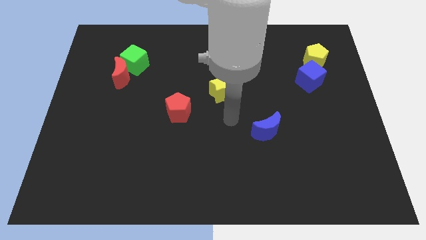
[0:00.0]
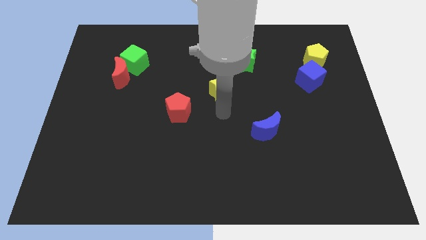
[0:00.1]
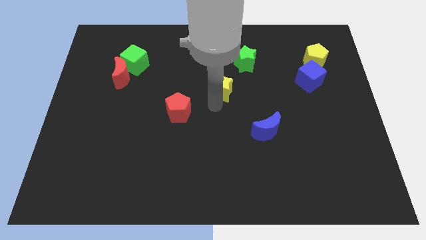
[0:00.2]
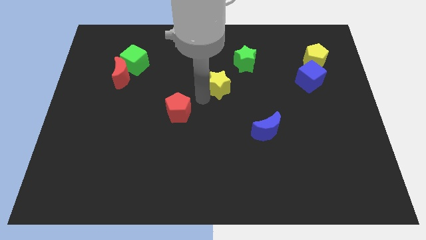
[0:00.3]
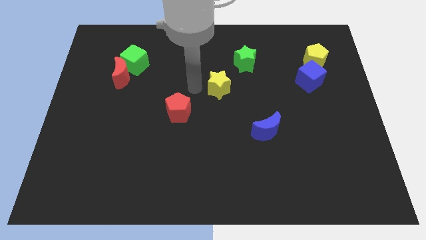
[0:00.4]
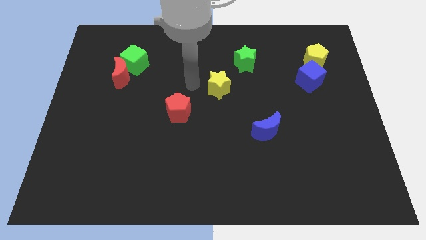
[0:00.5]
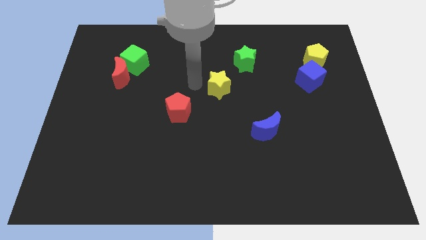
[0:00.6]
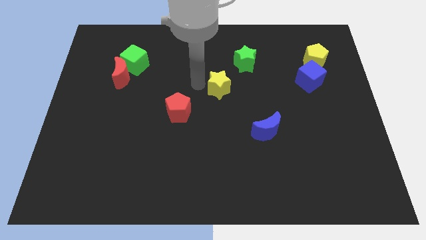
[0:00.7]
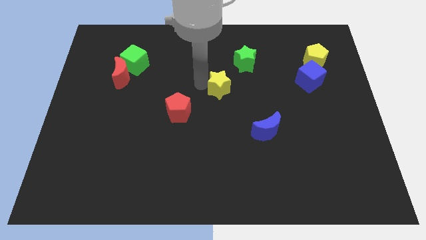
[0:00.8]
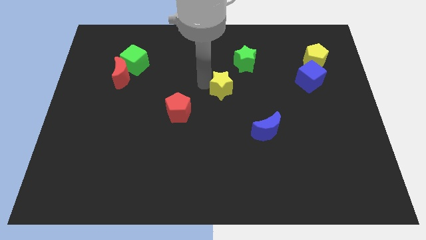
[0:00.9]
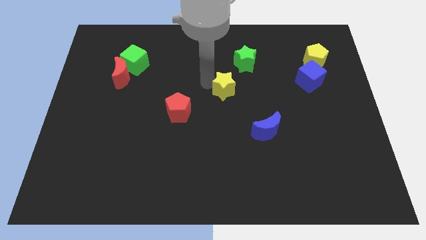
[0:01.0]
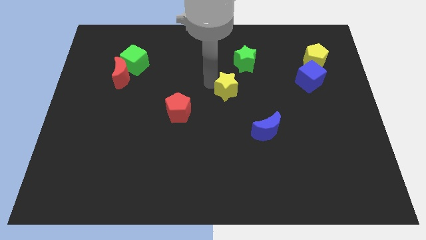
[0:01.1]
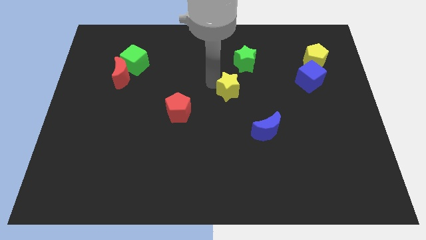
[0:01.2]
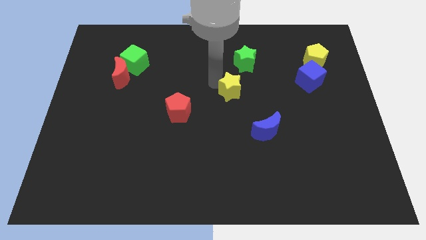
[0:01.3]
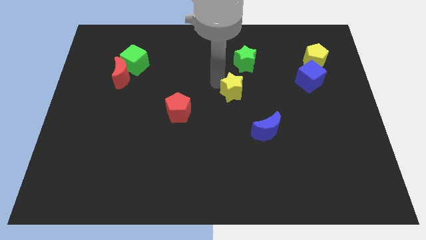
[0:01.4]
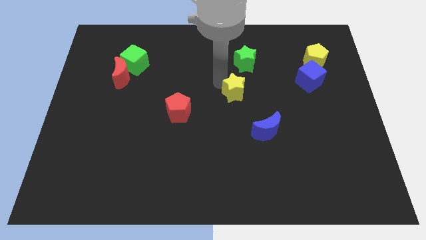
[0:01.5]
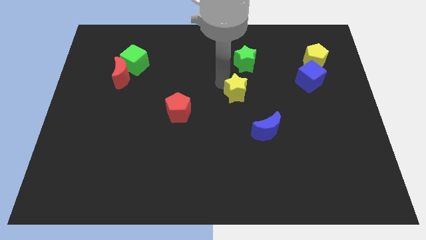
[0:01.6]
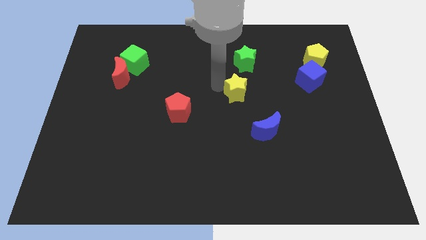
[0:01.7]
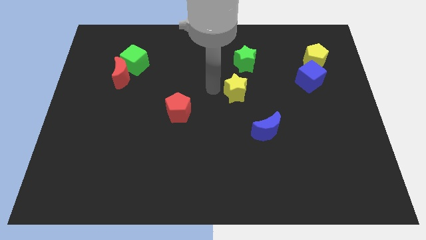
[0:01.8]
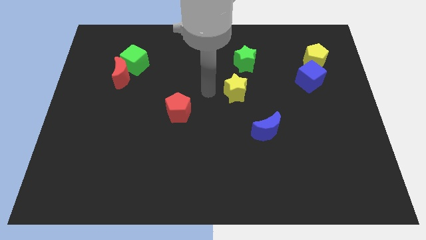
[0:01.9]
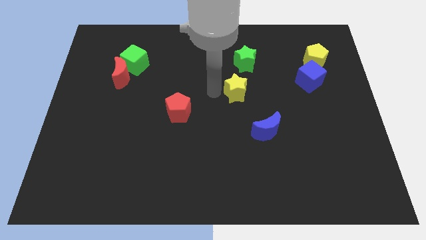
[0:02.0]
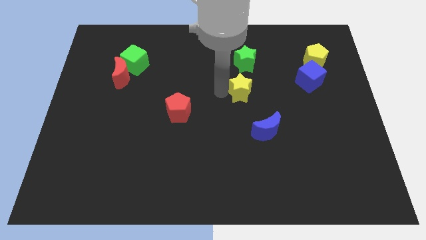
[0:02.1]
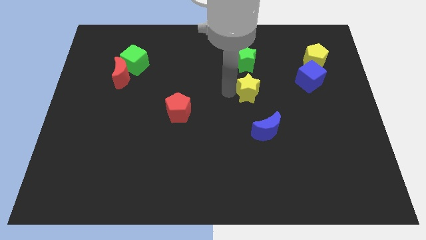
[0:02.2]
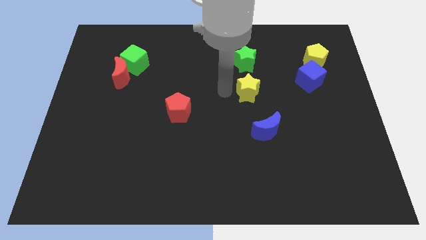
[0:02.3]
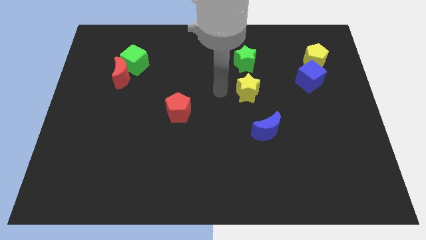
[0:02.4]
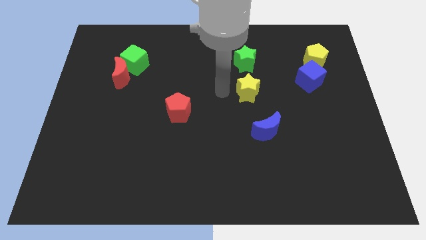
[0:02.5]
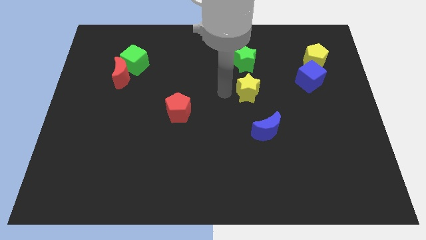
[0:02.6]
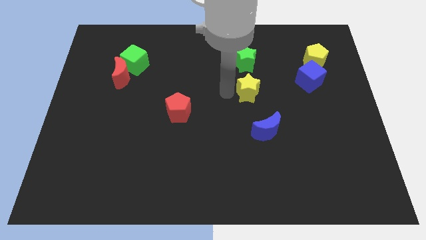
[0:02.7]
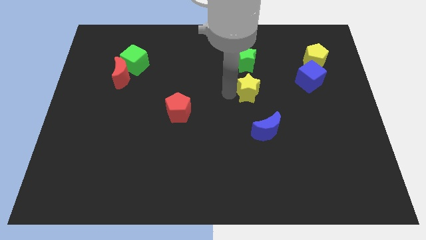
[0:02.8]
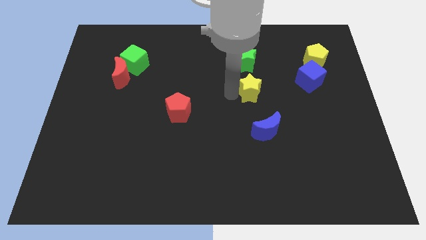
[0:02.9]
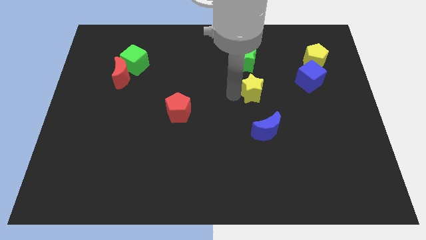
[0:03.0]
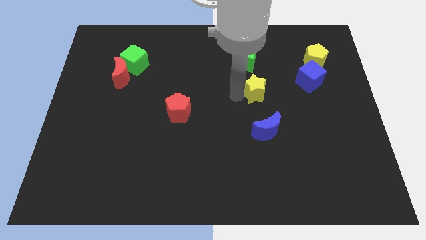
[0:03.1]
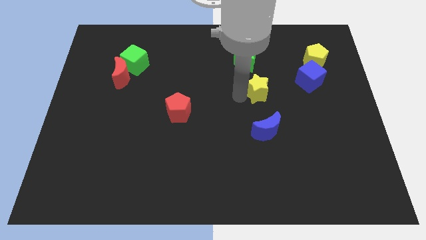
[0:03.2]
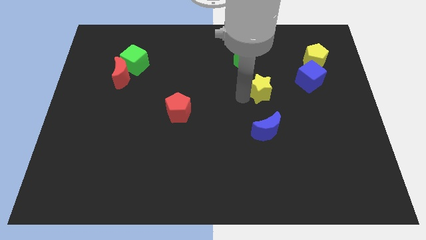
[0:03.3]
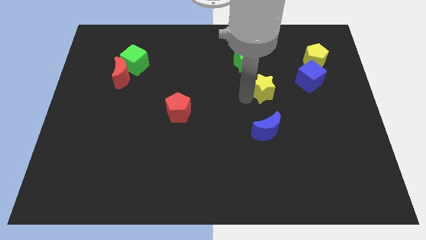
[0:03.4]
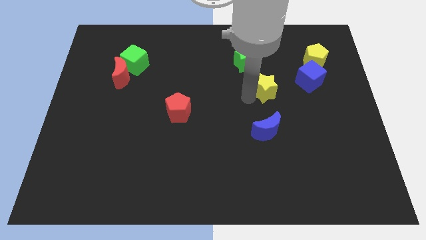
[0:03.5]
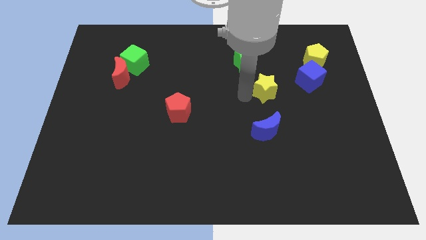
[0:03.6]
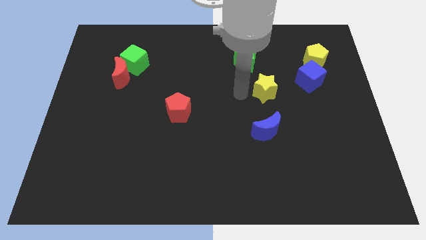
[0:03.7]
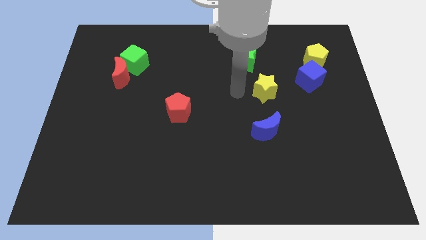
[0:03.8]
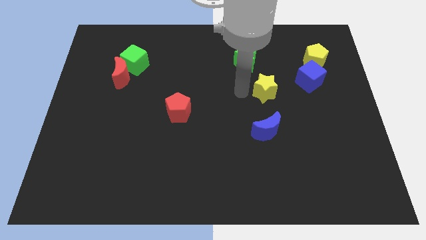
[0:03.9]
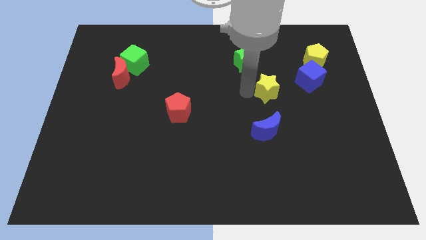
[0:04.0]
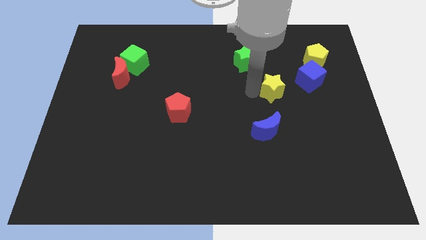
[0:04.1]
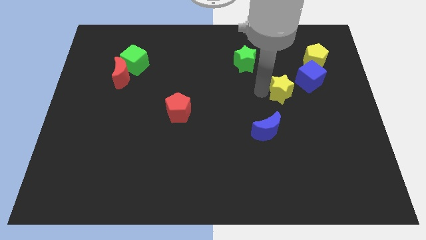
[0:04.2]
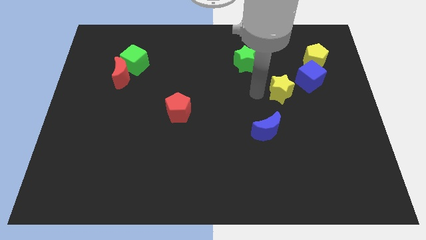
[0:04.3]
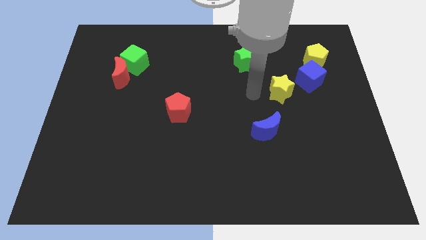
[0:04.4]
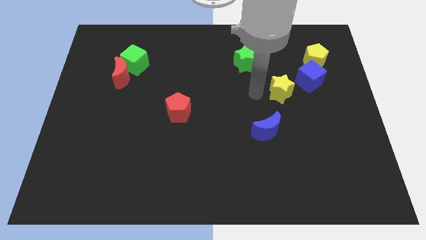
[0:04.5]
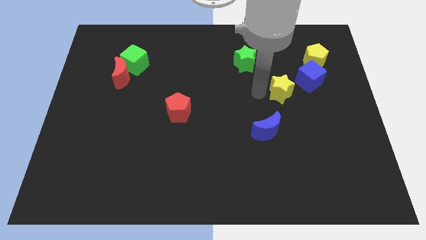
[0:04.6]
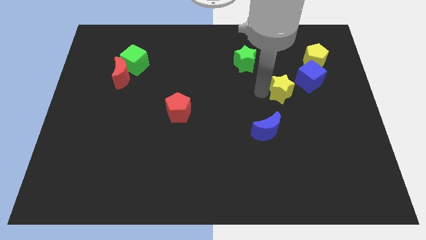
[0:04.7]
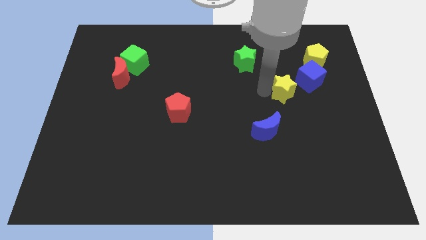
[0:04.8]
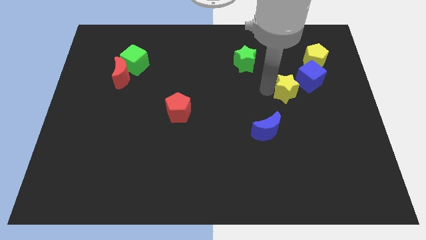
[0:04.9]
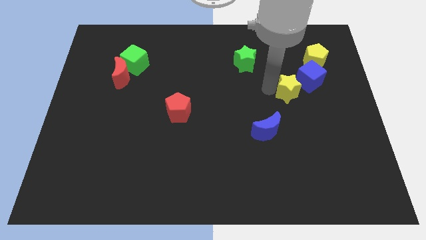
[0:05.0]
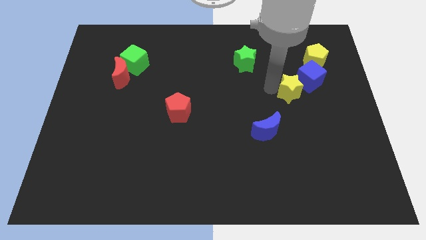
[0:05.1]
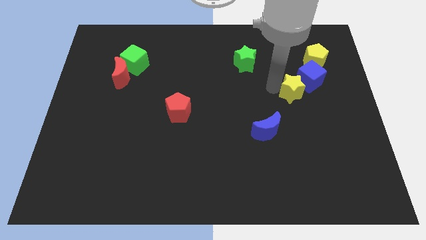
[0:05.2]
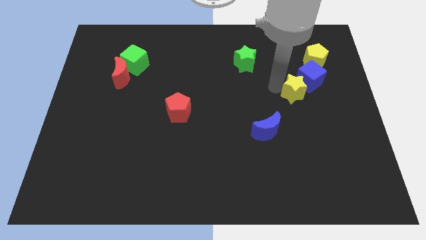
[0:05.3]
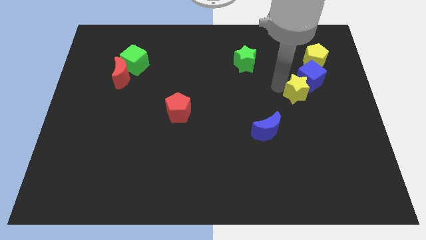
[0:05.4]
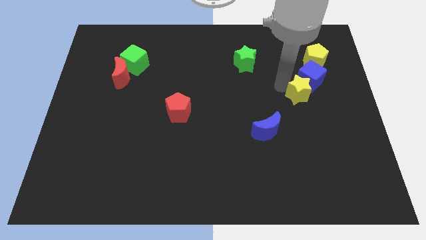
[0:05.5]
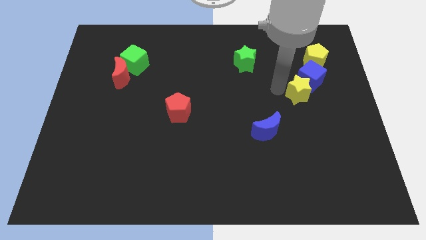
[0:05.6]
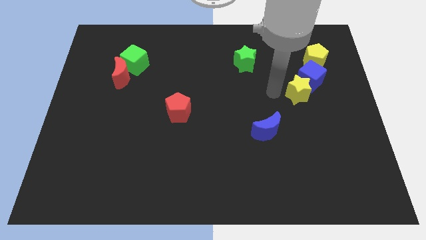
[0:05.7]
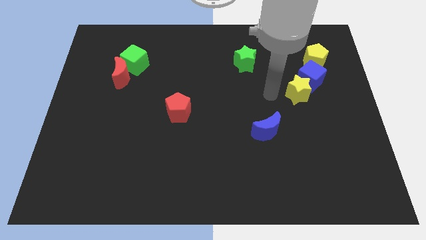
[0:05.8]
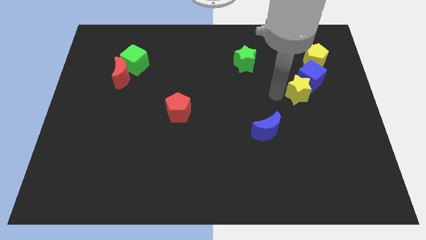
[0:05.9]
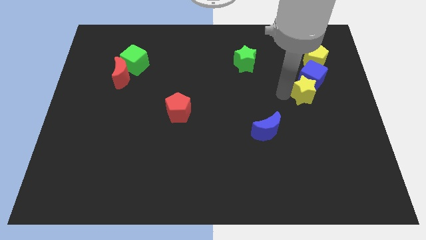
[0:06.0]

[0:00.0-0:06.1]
slide the yellow star to the bottom of the yellow pentagon

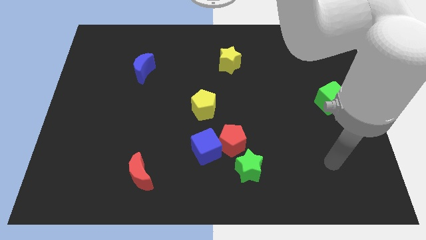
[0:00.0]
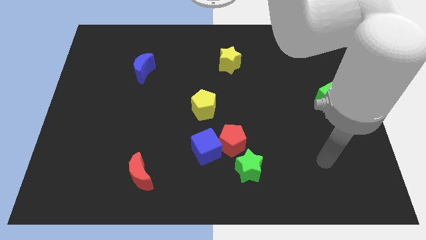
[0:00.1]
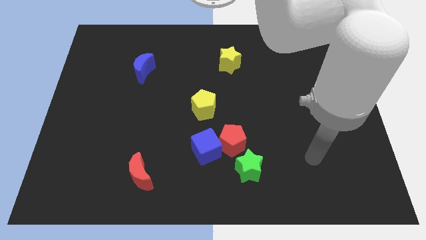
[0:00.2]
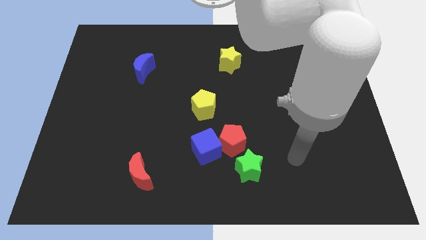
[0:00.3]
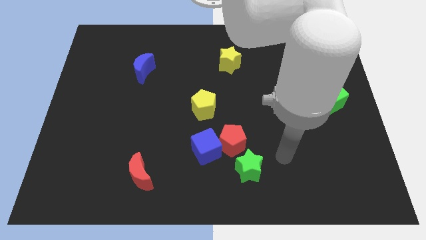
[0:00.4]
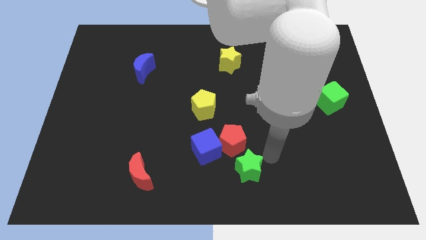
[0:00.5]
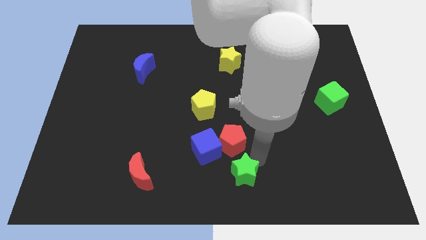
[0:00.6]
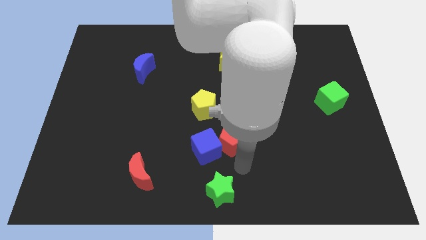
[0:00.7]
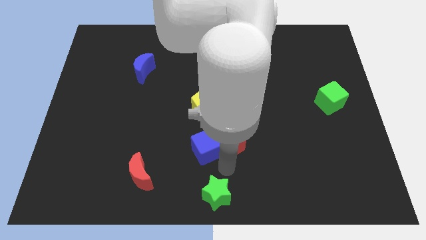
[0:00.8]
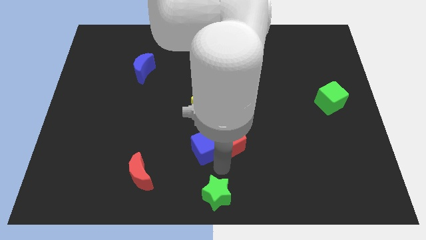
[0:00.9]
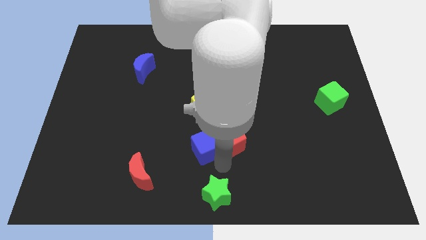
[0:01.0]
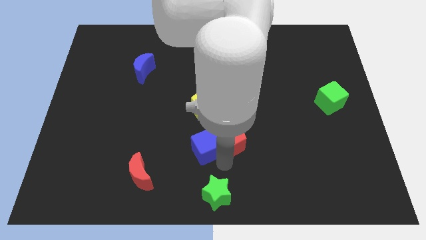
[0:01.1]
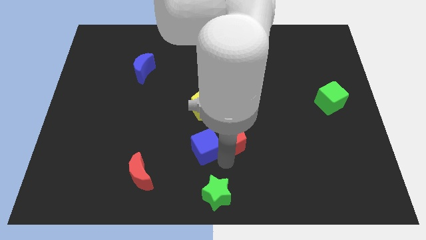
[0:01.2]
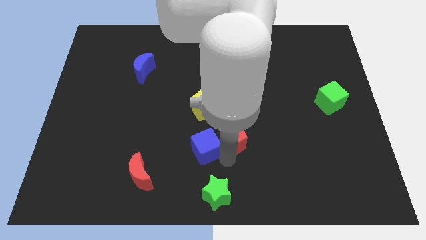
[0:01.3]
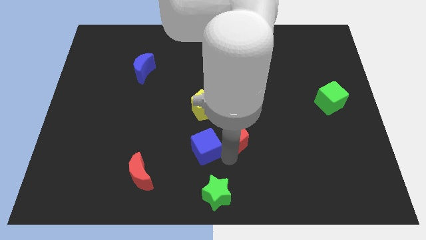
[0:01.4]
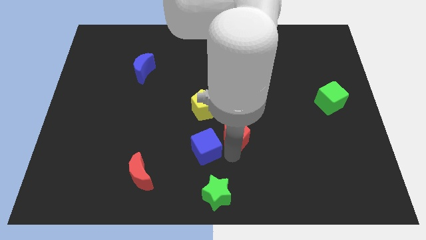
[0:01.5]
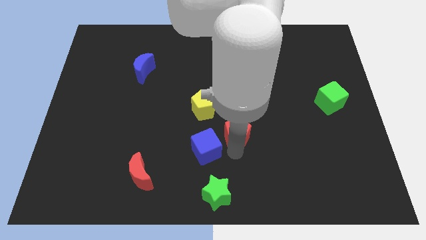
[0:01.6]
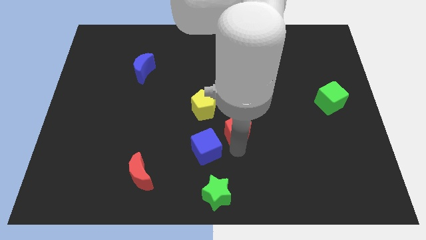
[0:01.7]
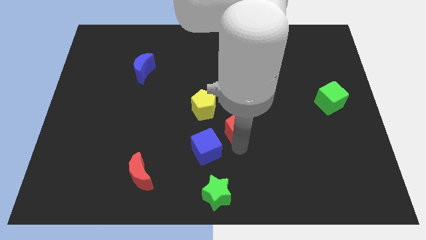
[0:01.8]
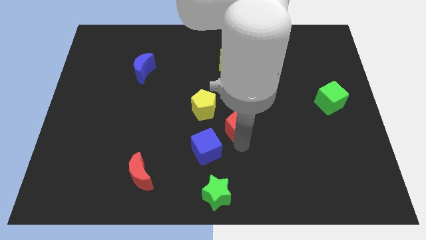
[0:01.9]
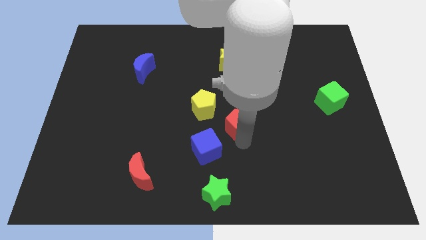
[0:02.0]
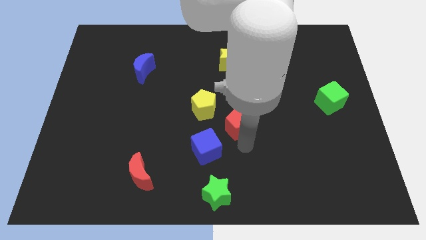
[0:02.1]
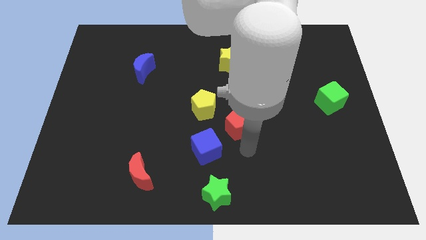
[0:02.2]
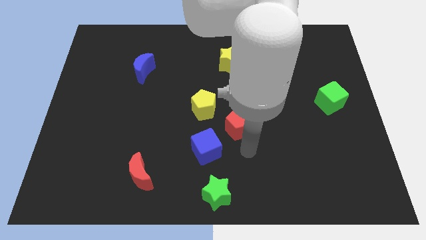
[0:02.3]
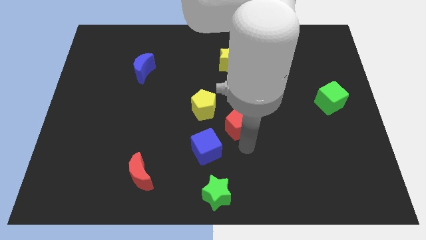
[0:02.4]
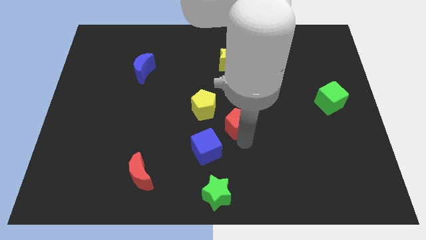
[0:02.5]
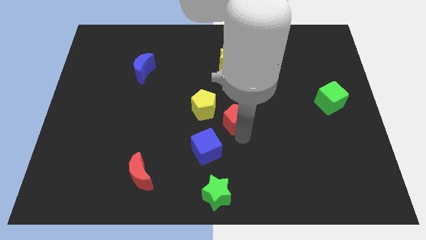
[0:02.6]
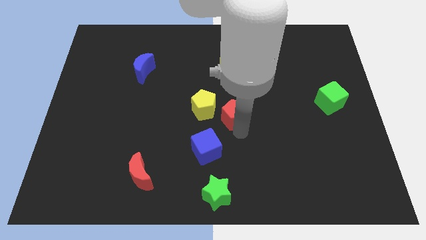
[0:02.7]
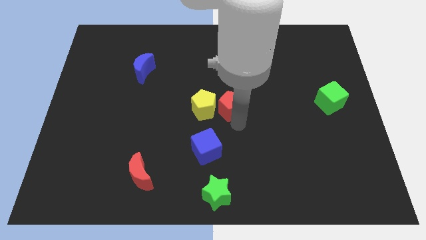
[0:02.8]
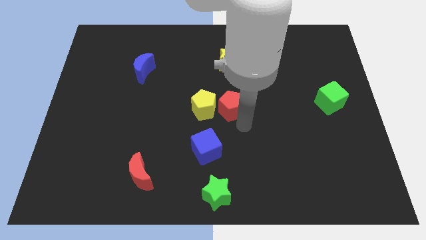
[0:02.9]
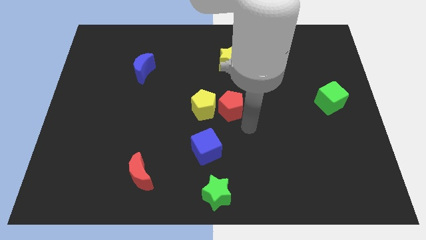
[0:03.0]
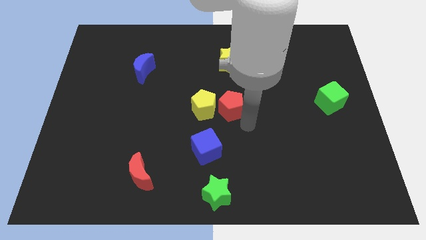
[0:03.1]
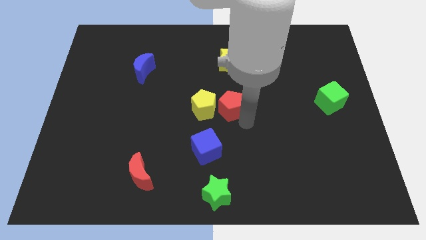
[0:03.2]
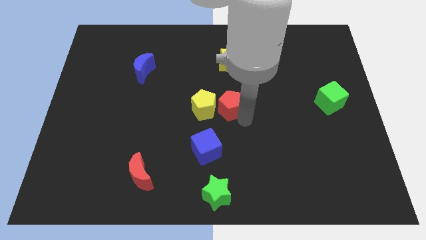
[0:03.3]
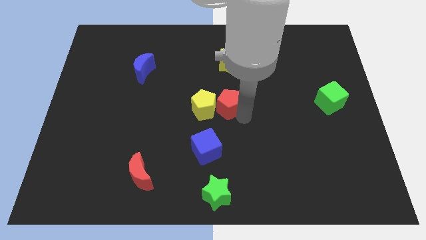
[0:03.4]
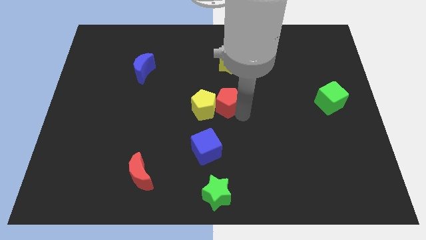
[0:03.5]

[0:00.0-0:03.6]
push the red pentagon to the top side of the blue cube
